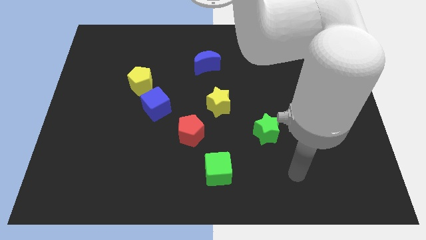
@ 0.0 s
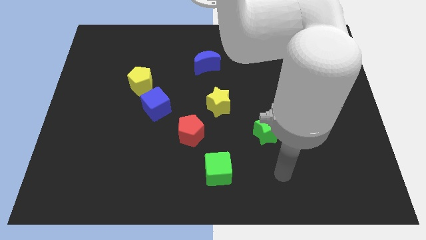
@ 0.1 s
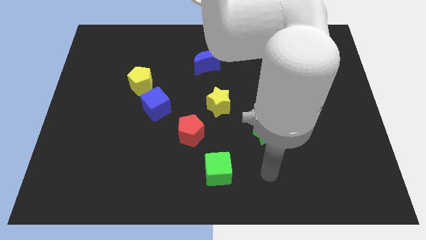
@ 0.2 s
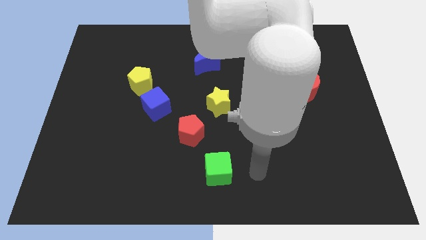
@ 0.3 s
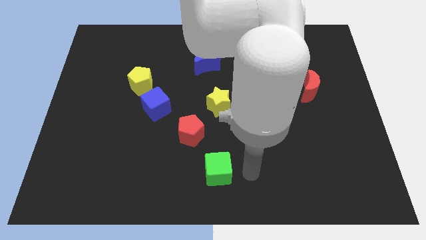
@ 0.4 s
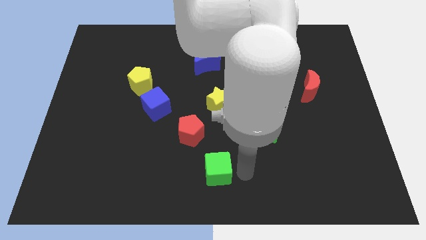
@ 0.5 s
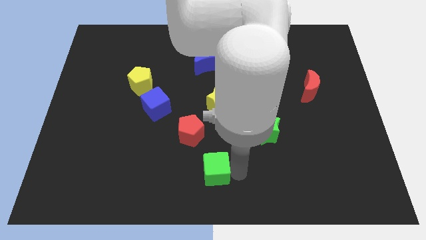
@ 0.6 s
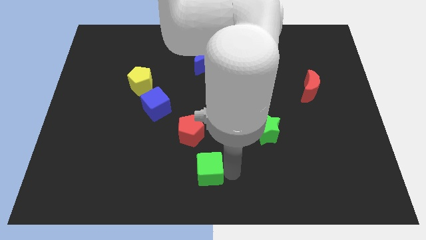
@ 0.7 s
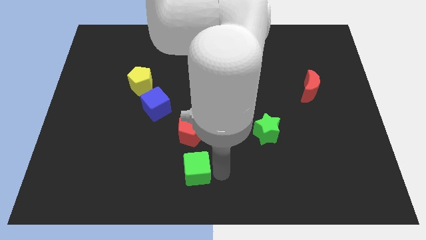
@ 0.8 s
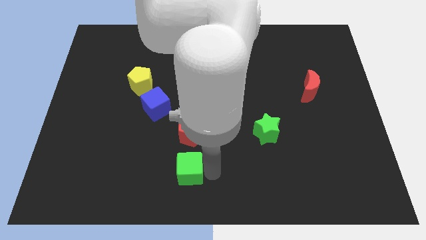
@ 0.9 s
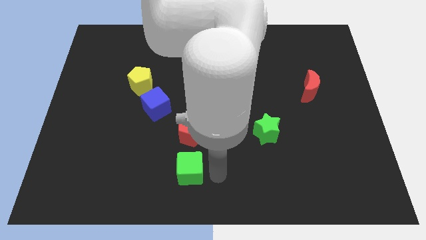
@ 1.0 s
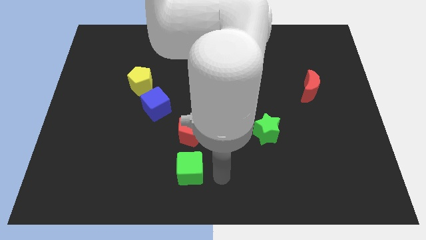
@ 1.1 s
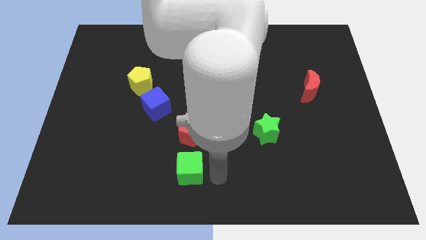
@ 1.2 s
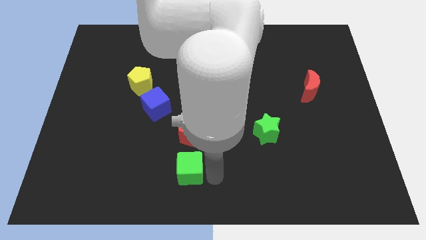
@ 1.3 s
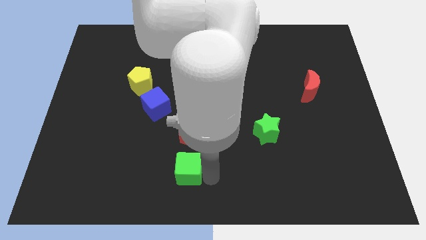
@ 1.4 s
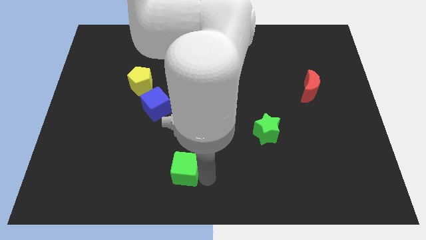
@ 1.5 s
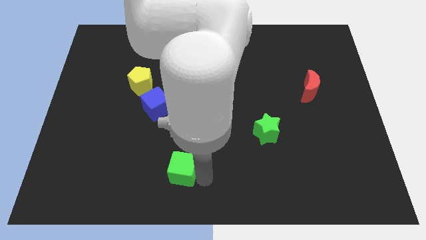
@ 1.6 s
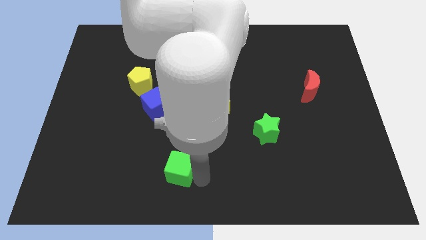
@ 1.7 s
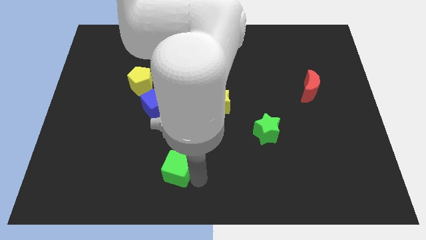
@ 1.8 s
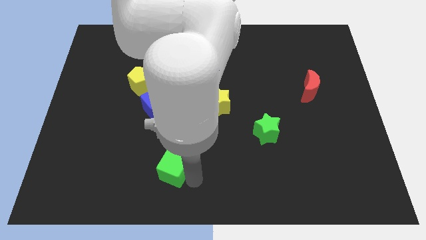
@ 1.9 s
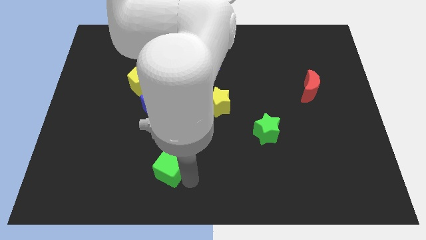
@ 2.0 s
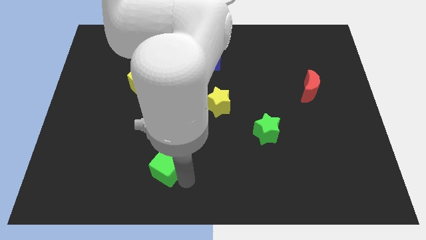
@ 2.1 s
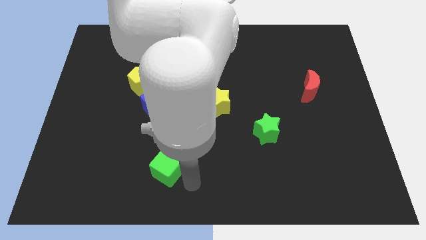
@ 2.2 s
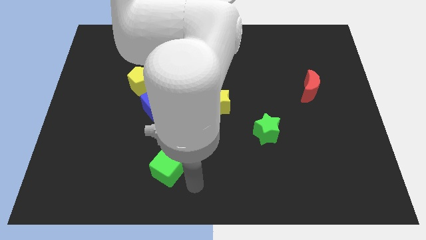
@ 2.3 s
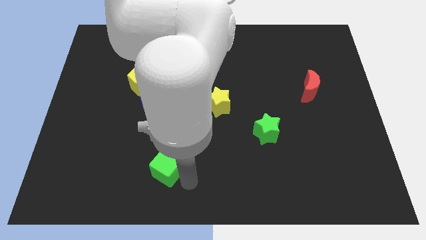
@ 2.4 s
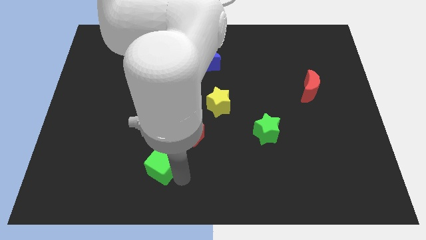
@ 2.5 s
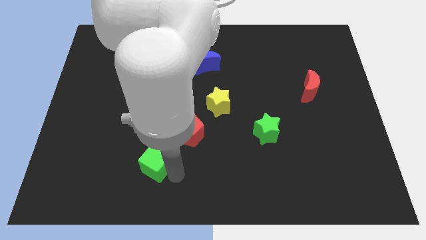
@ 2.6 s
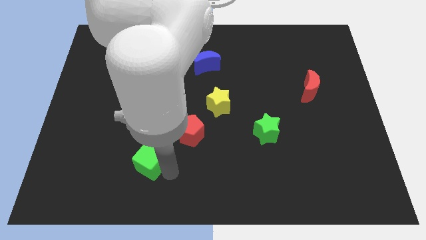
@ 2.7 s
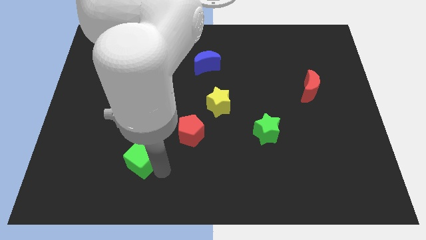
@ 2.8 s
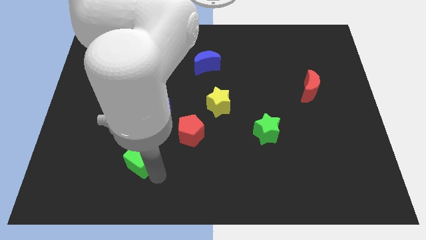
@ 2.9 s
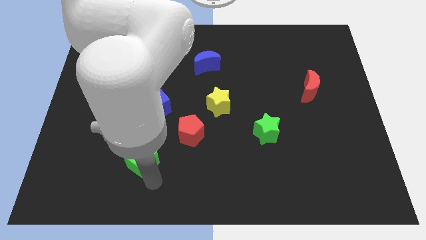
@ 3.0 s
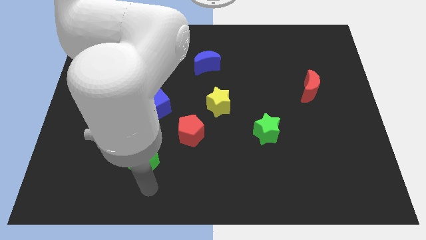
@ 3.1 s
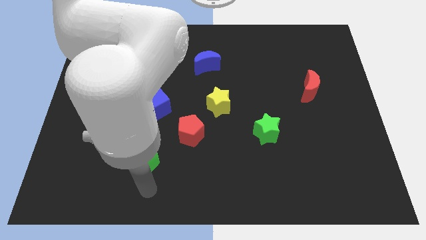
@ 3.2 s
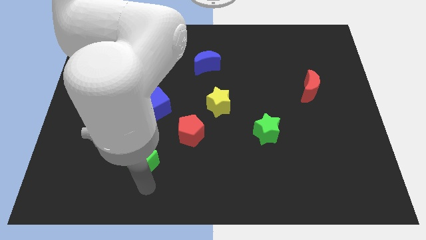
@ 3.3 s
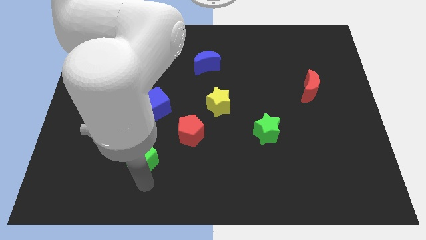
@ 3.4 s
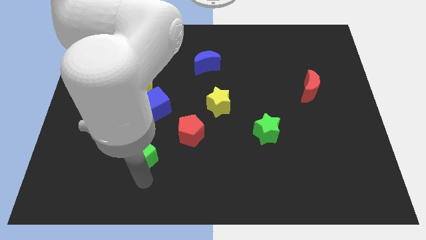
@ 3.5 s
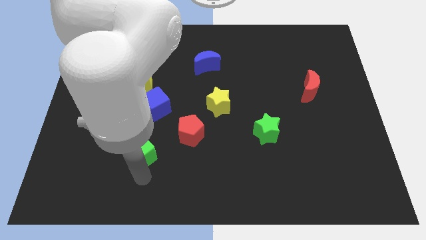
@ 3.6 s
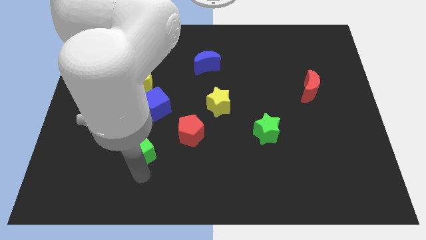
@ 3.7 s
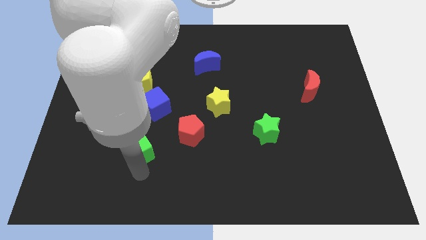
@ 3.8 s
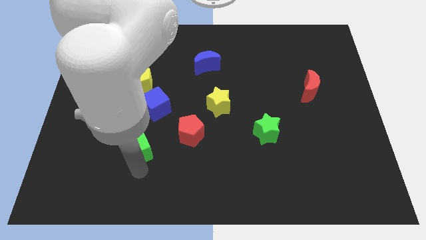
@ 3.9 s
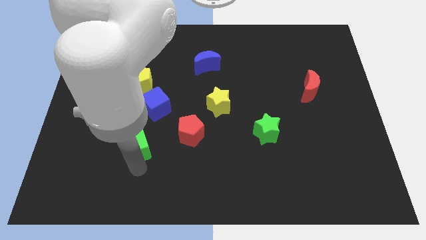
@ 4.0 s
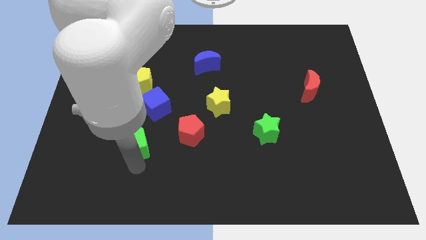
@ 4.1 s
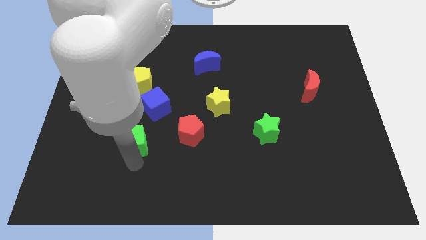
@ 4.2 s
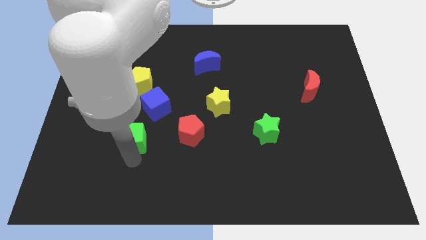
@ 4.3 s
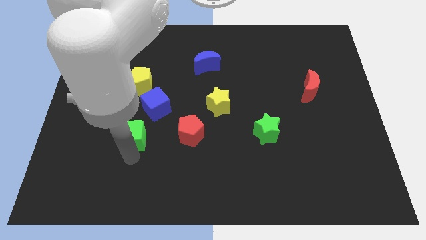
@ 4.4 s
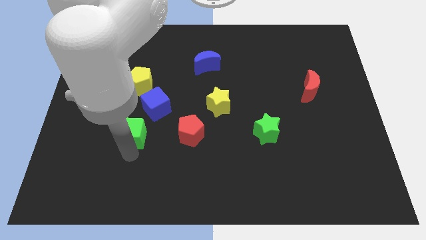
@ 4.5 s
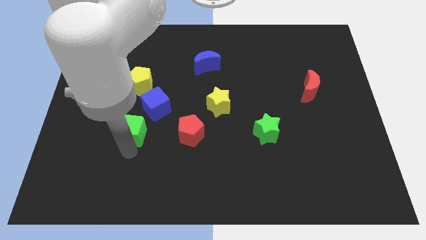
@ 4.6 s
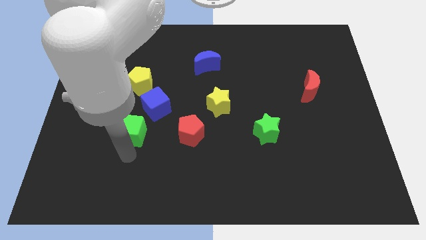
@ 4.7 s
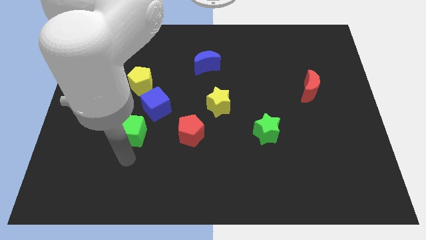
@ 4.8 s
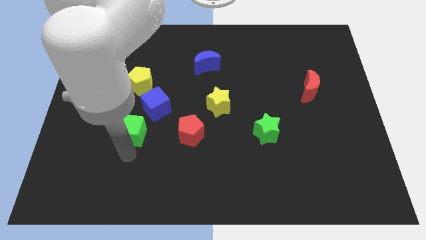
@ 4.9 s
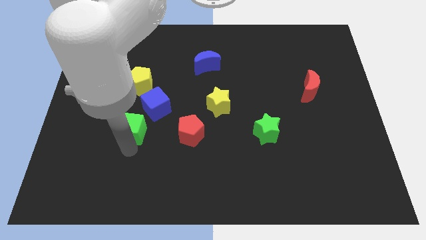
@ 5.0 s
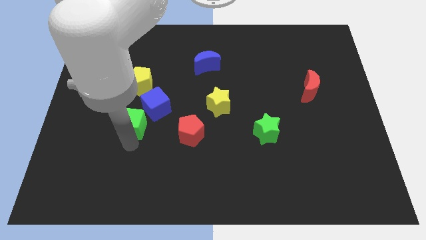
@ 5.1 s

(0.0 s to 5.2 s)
slide the green cube upwards and then left

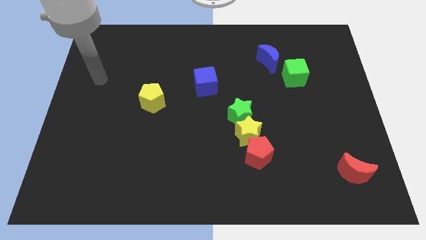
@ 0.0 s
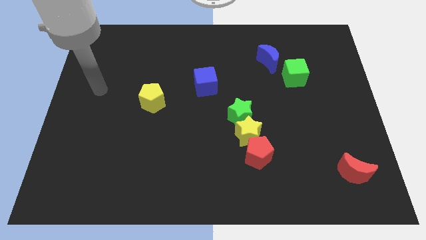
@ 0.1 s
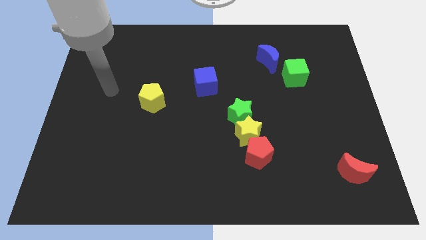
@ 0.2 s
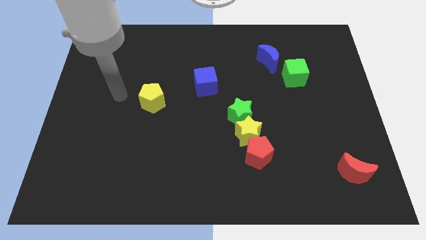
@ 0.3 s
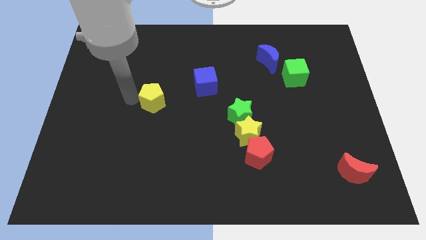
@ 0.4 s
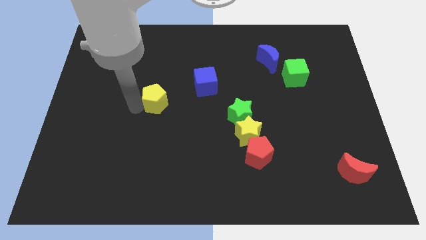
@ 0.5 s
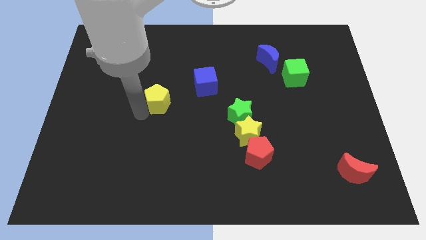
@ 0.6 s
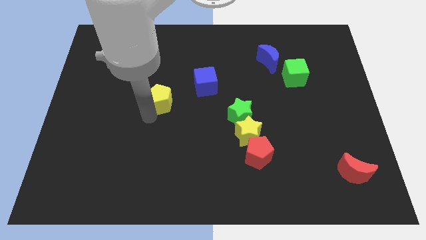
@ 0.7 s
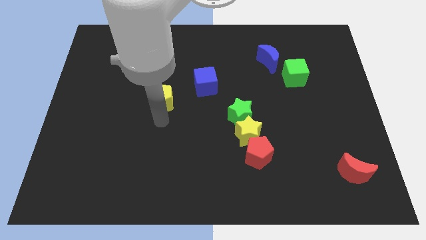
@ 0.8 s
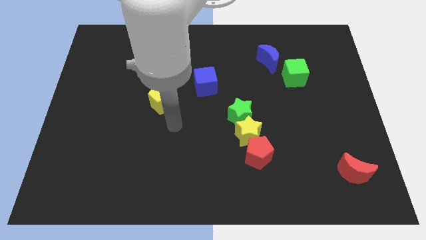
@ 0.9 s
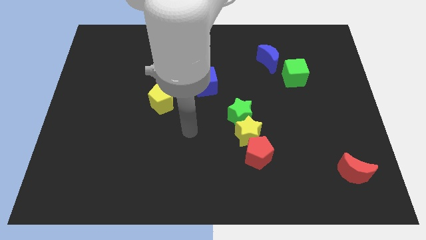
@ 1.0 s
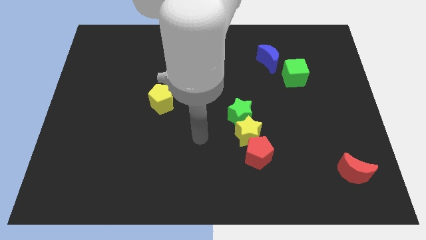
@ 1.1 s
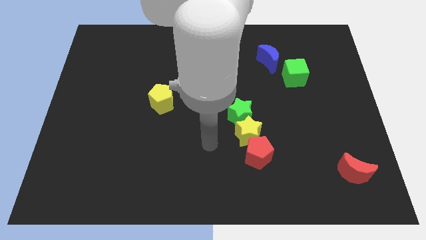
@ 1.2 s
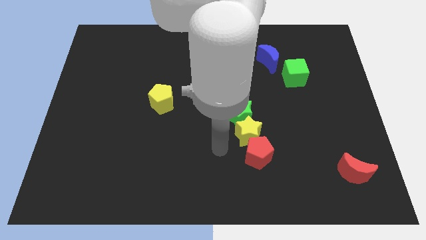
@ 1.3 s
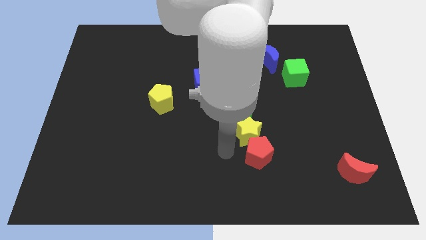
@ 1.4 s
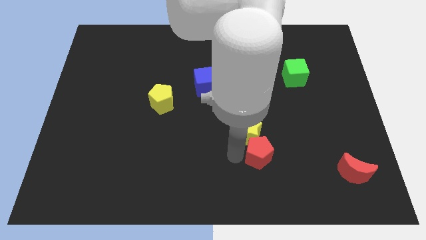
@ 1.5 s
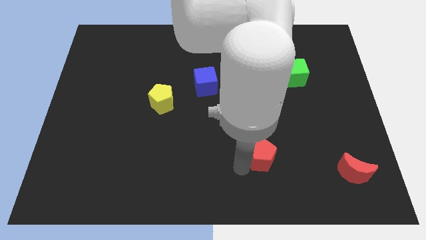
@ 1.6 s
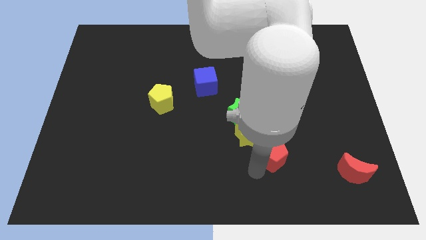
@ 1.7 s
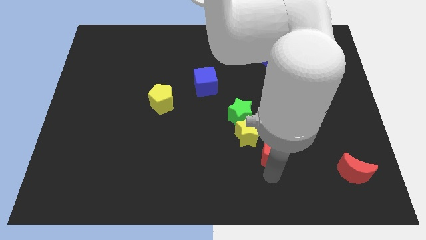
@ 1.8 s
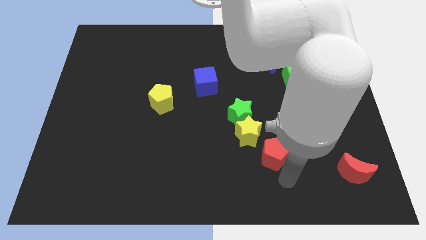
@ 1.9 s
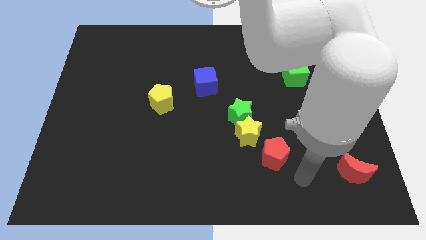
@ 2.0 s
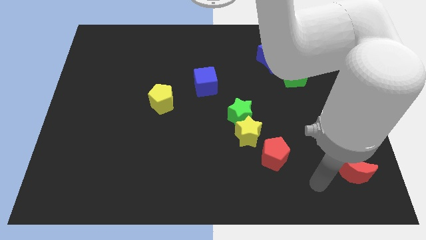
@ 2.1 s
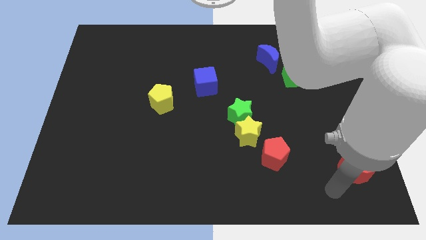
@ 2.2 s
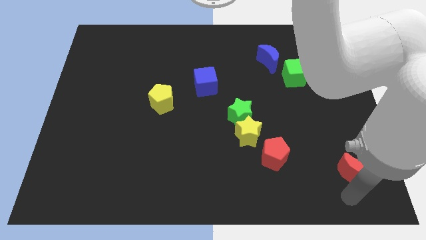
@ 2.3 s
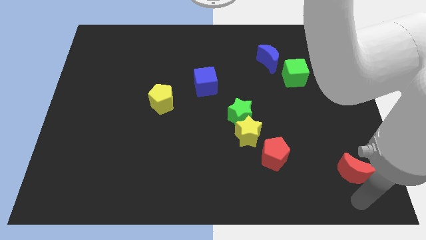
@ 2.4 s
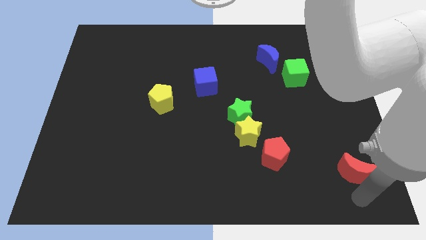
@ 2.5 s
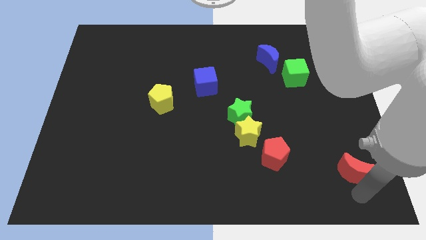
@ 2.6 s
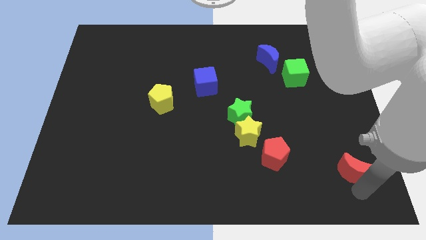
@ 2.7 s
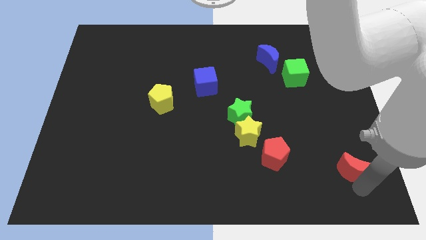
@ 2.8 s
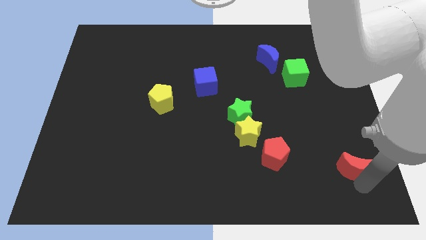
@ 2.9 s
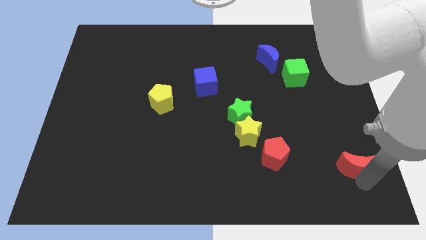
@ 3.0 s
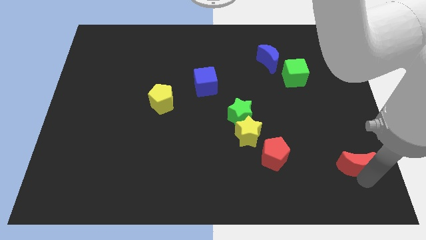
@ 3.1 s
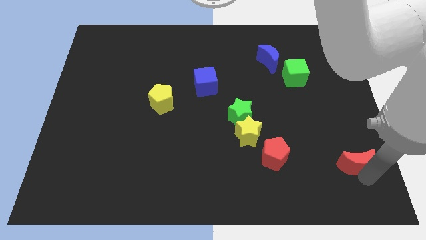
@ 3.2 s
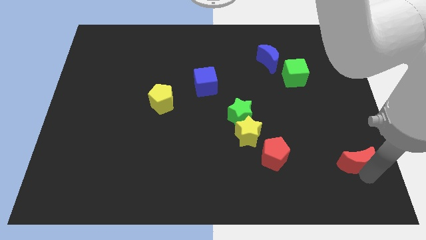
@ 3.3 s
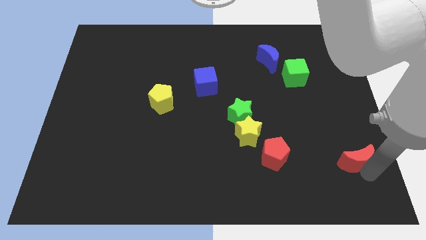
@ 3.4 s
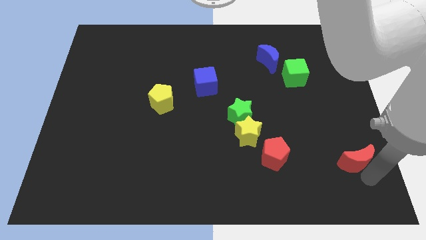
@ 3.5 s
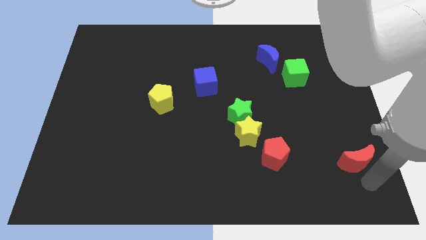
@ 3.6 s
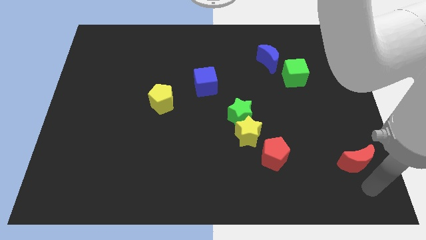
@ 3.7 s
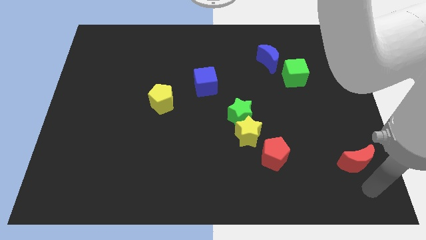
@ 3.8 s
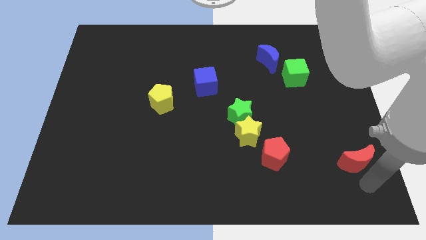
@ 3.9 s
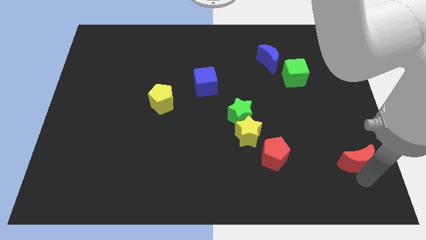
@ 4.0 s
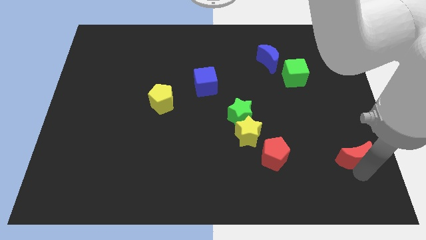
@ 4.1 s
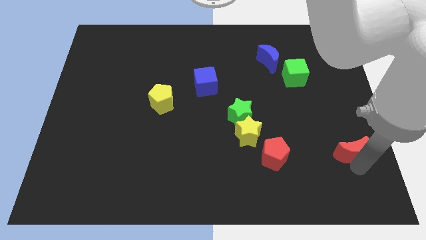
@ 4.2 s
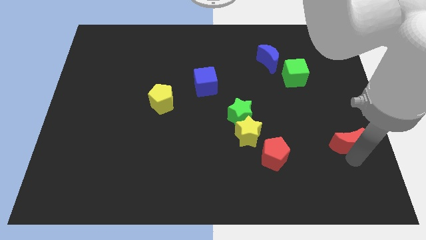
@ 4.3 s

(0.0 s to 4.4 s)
slightly push the red moon up
